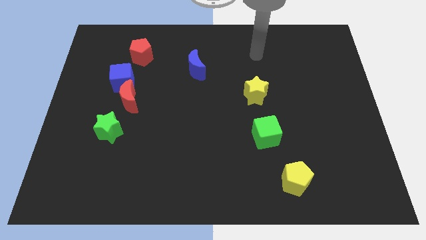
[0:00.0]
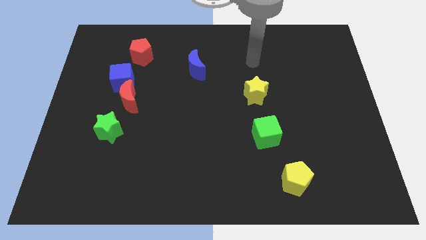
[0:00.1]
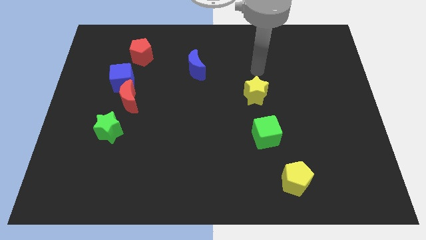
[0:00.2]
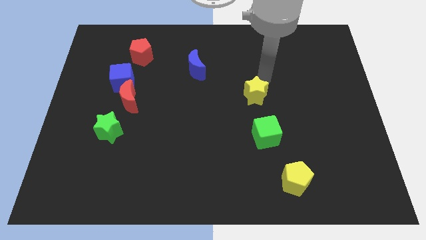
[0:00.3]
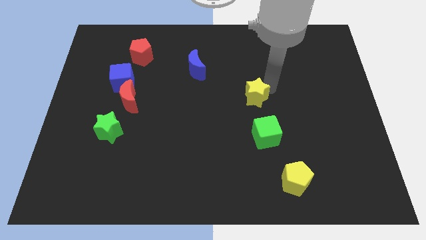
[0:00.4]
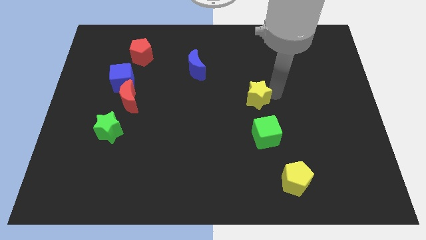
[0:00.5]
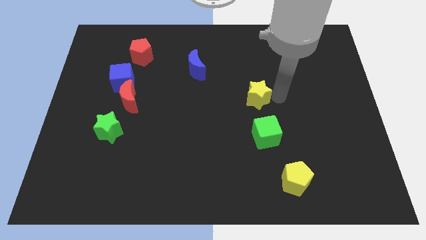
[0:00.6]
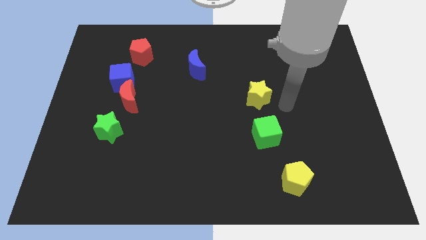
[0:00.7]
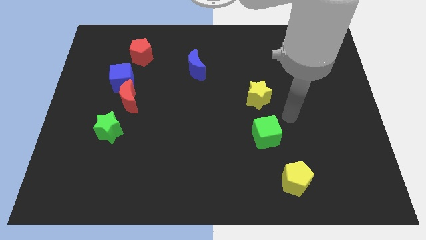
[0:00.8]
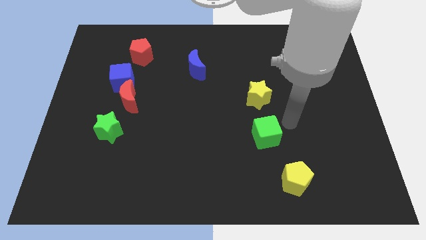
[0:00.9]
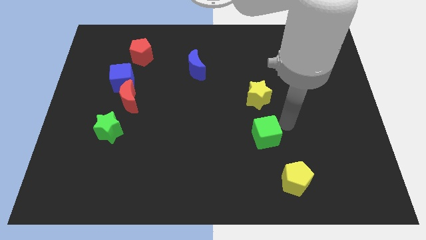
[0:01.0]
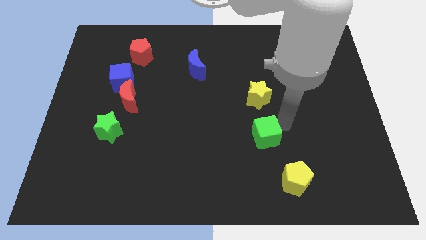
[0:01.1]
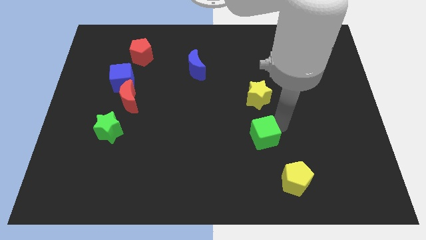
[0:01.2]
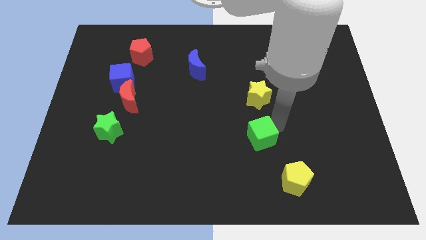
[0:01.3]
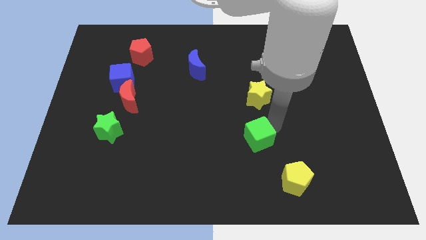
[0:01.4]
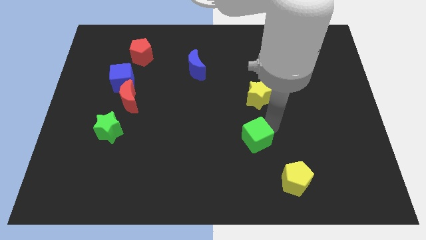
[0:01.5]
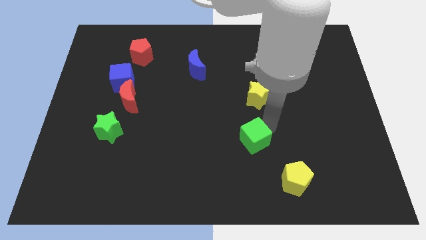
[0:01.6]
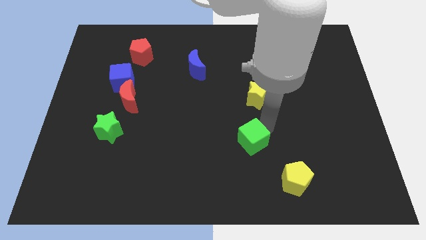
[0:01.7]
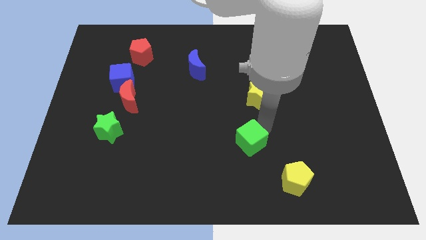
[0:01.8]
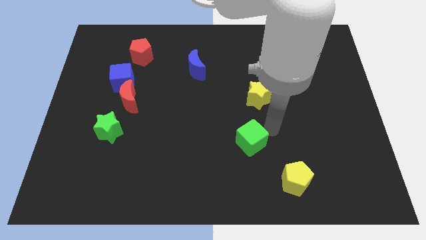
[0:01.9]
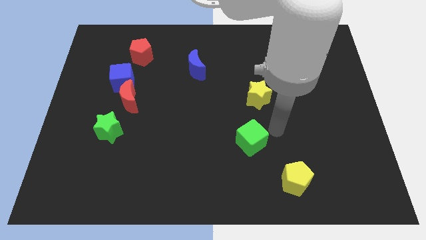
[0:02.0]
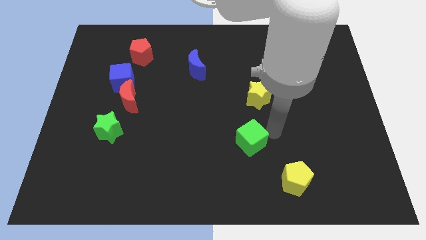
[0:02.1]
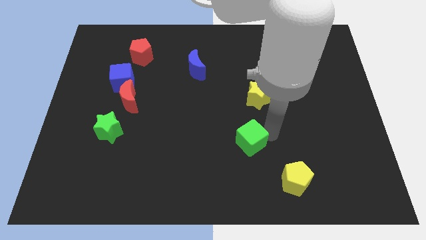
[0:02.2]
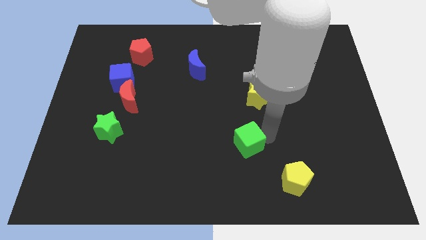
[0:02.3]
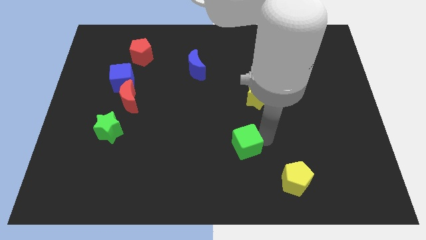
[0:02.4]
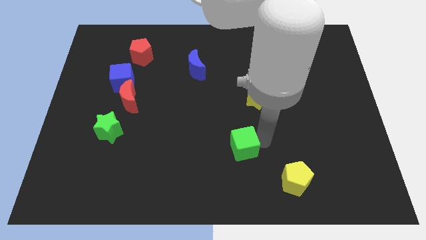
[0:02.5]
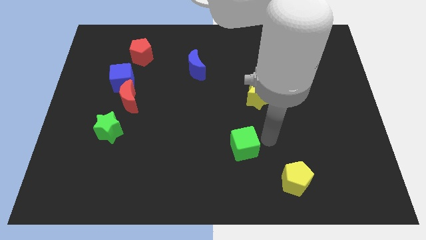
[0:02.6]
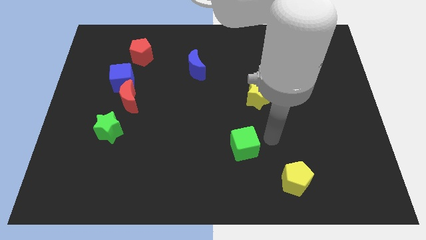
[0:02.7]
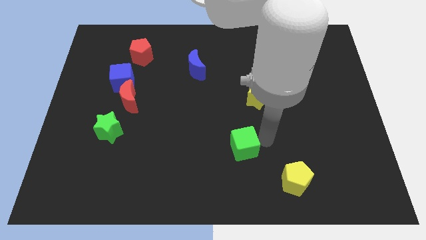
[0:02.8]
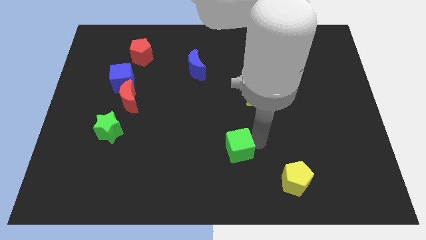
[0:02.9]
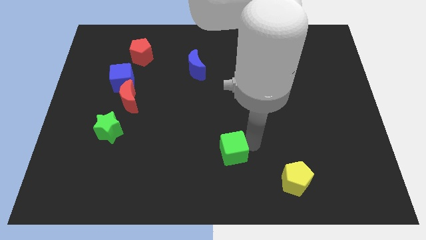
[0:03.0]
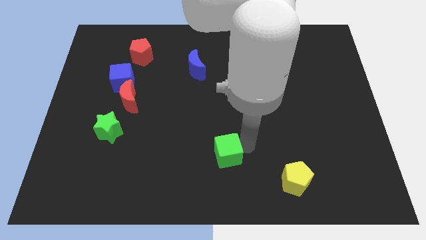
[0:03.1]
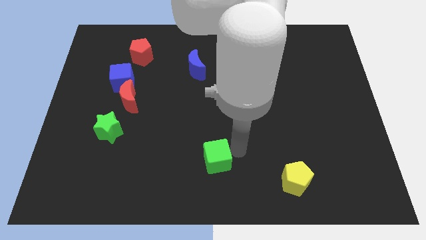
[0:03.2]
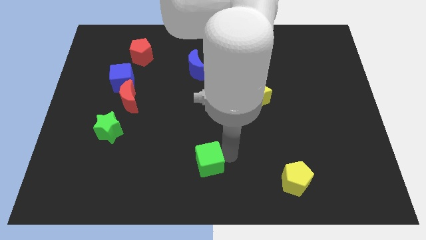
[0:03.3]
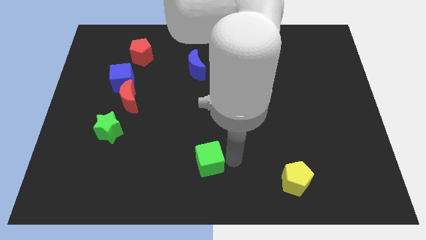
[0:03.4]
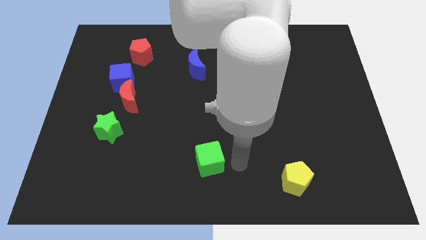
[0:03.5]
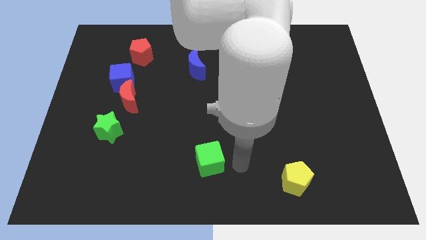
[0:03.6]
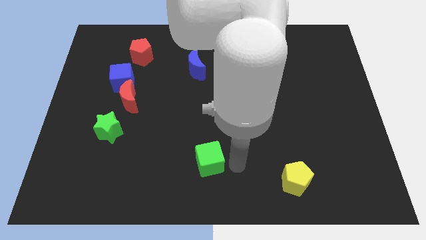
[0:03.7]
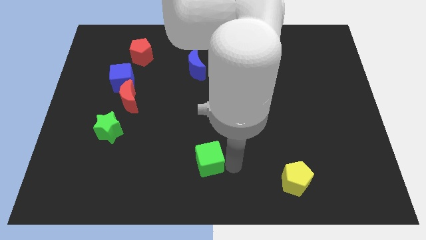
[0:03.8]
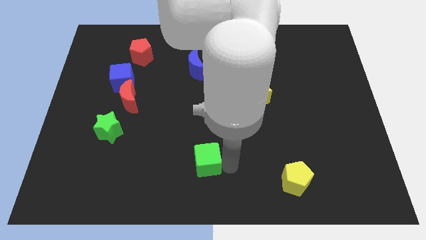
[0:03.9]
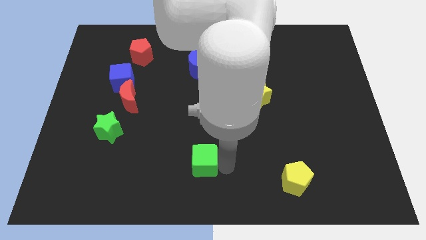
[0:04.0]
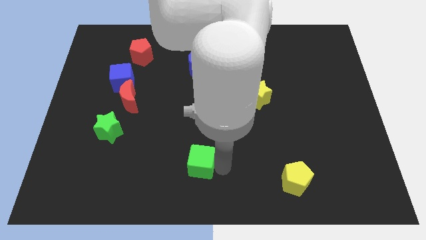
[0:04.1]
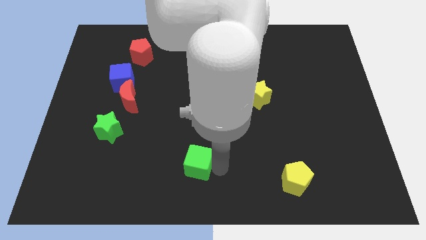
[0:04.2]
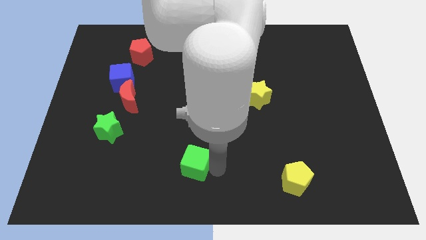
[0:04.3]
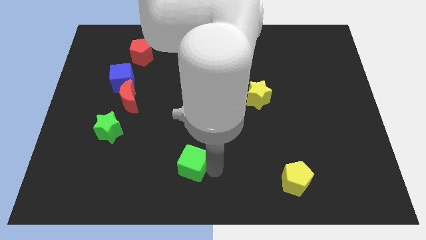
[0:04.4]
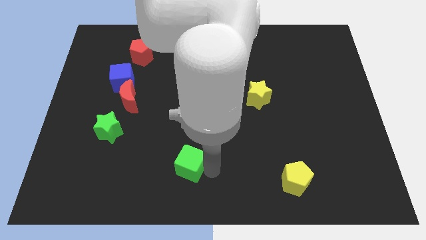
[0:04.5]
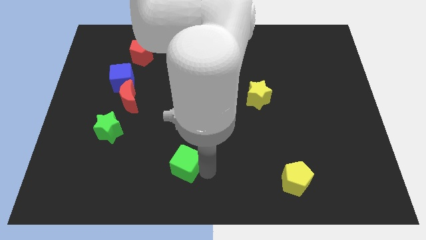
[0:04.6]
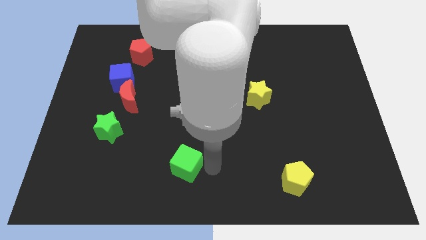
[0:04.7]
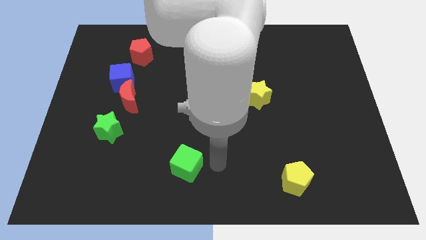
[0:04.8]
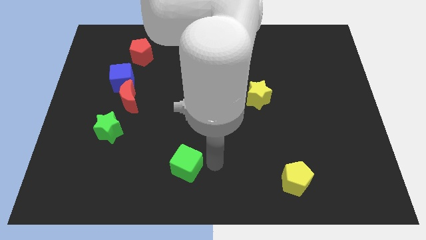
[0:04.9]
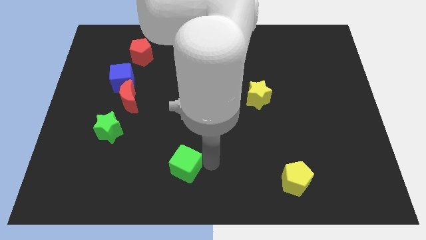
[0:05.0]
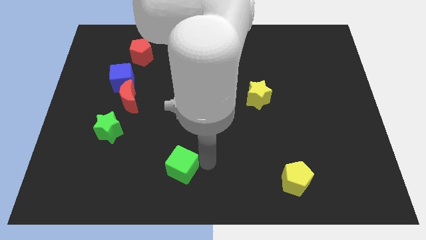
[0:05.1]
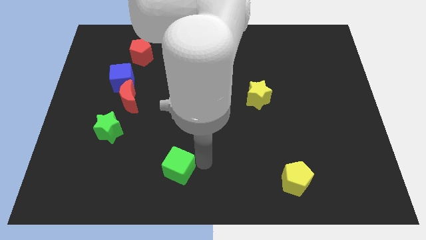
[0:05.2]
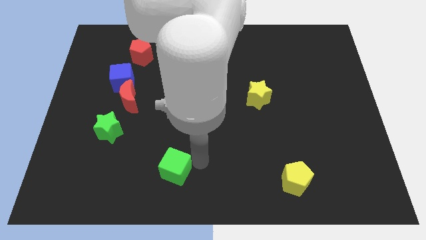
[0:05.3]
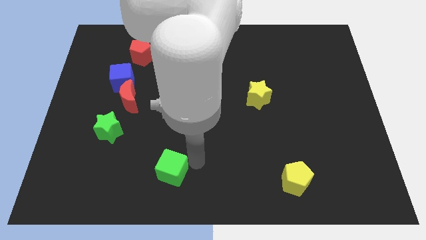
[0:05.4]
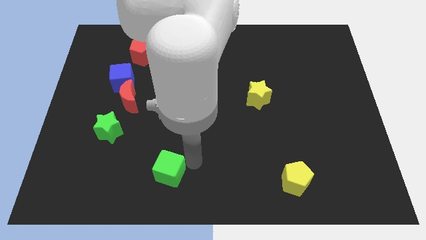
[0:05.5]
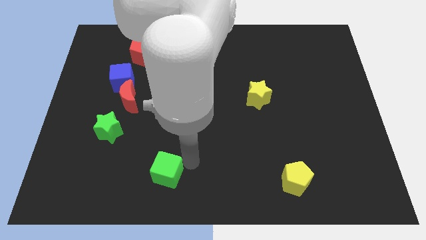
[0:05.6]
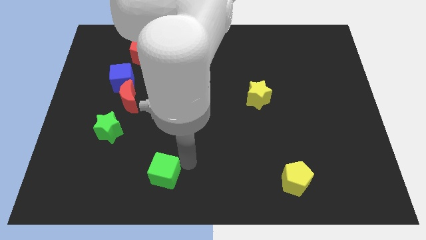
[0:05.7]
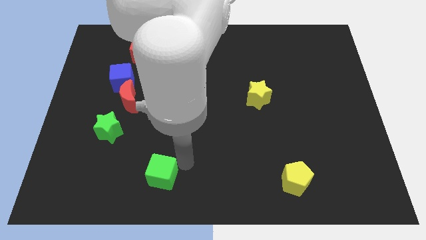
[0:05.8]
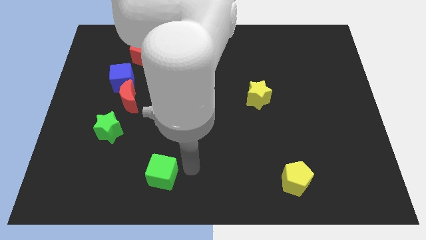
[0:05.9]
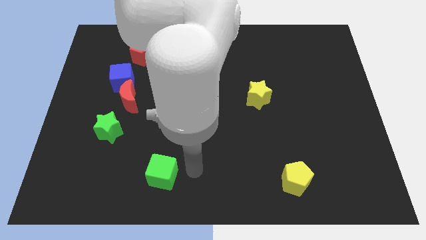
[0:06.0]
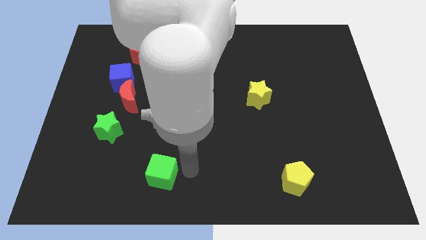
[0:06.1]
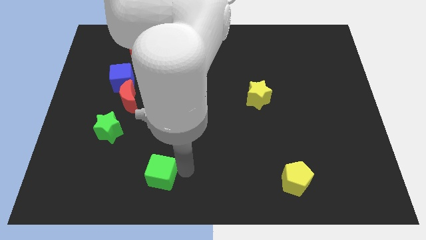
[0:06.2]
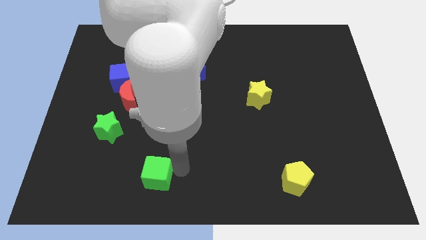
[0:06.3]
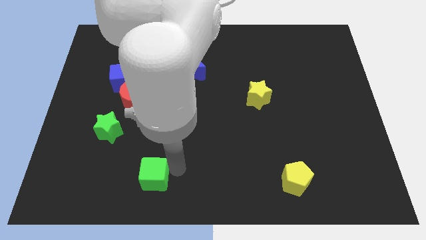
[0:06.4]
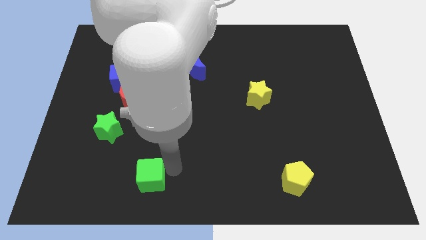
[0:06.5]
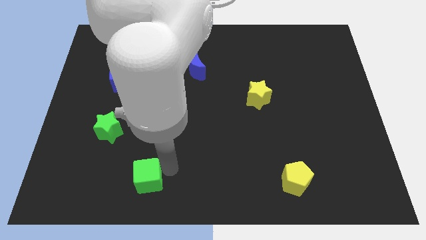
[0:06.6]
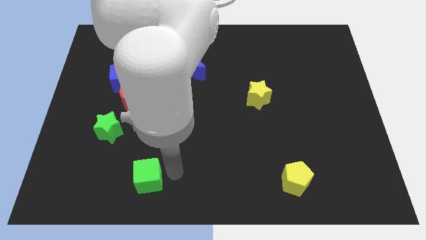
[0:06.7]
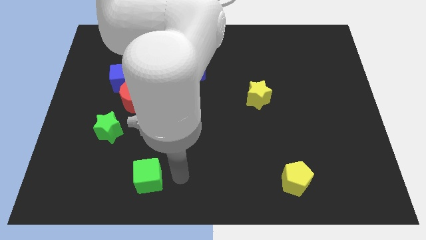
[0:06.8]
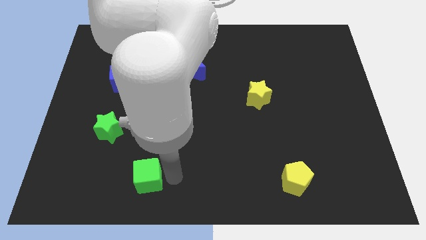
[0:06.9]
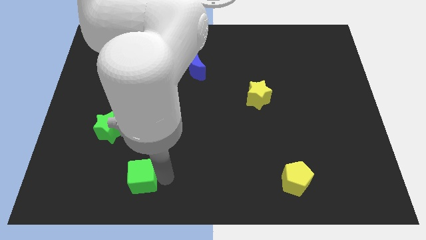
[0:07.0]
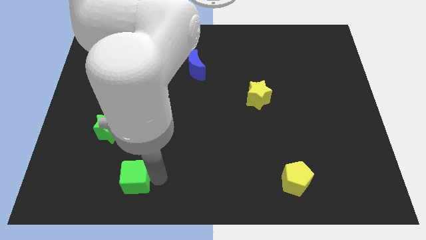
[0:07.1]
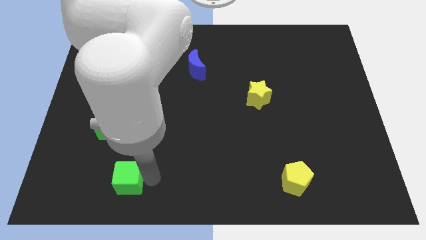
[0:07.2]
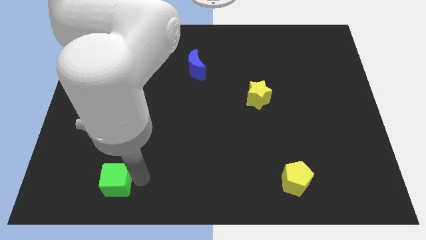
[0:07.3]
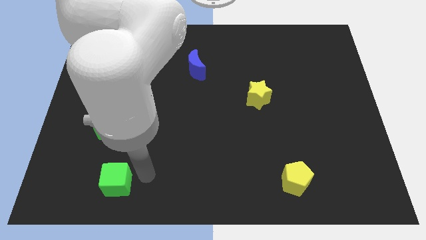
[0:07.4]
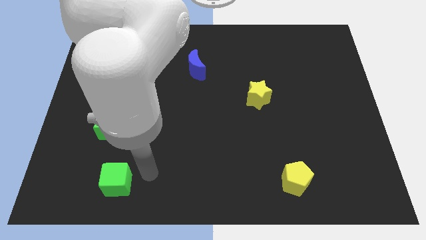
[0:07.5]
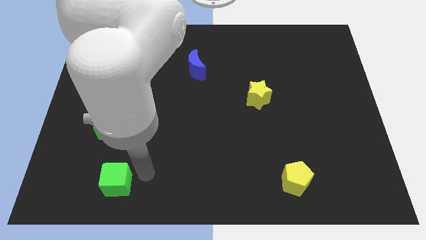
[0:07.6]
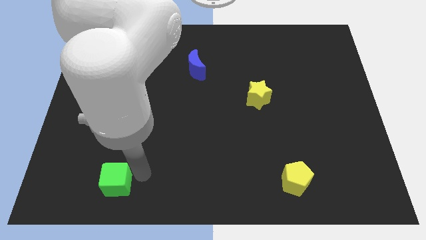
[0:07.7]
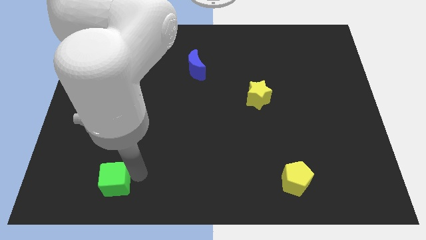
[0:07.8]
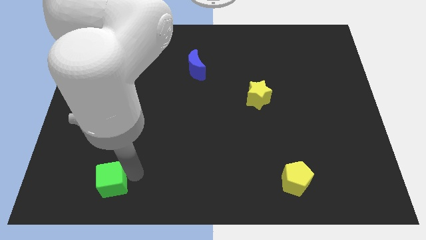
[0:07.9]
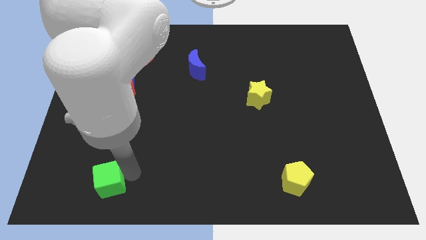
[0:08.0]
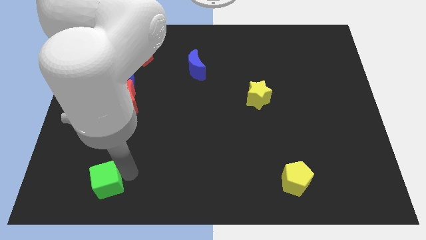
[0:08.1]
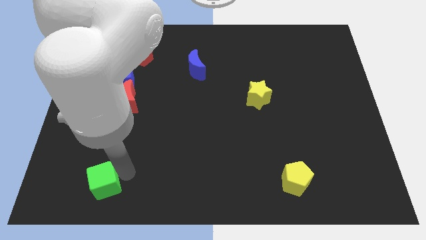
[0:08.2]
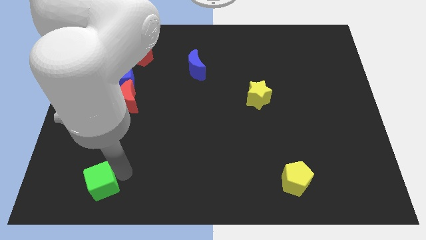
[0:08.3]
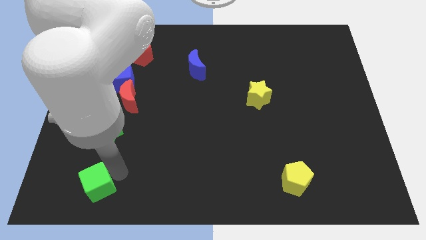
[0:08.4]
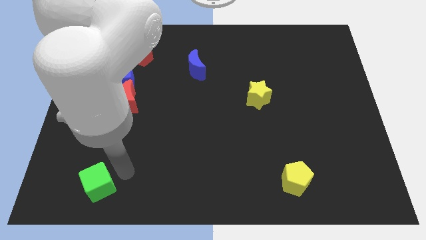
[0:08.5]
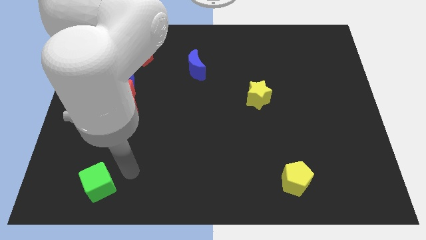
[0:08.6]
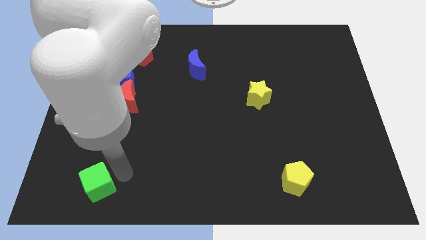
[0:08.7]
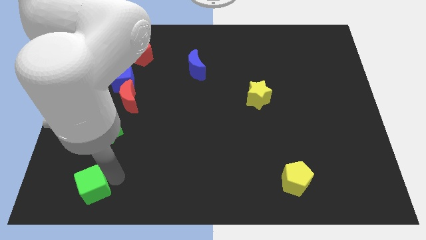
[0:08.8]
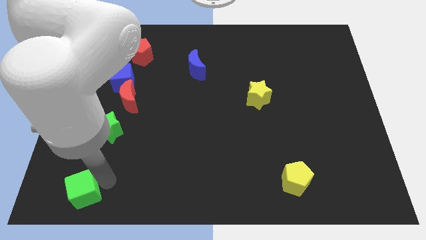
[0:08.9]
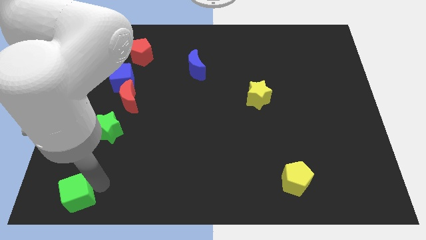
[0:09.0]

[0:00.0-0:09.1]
slide the green cube to the bottom left
